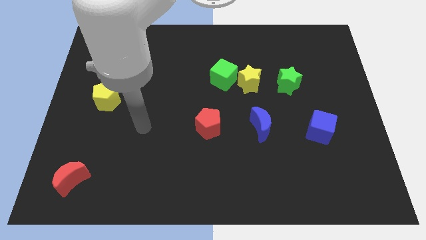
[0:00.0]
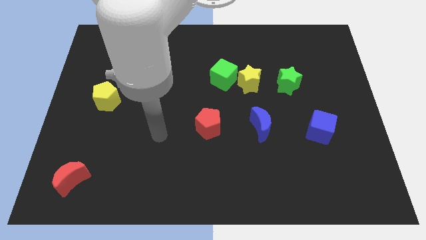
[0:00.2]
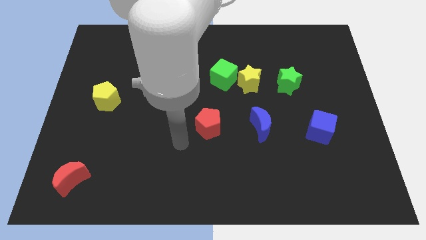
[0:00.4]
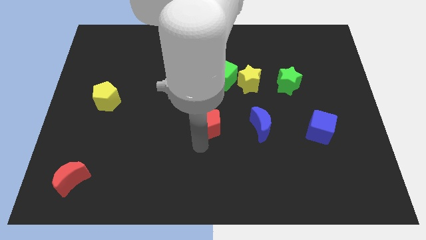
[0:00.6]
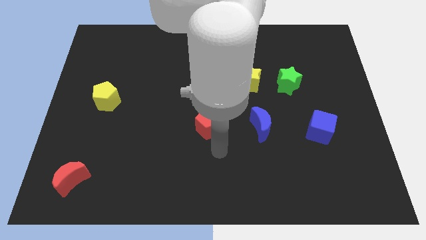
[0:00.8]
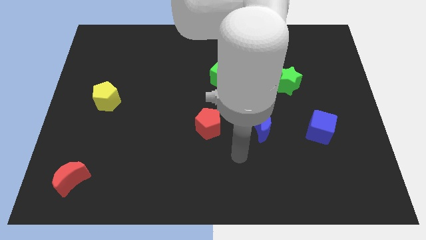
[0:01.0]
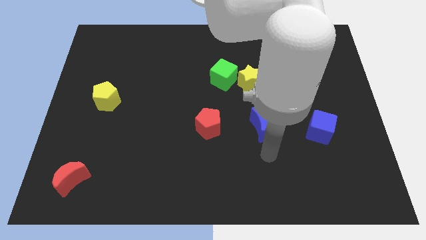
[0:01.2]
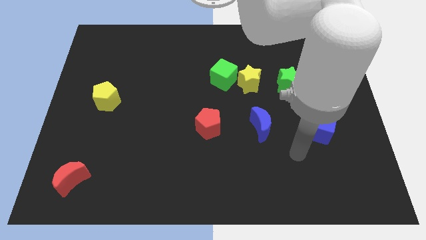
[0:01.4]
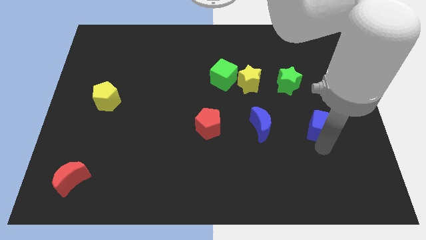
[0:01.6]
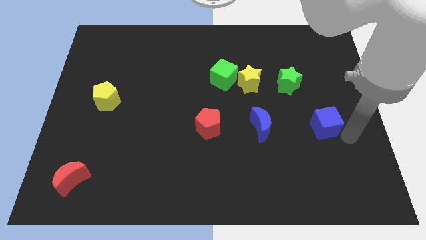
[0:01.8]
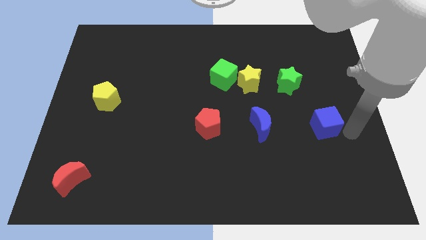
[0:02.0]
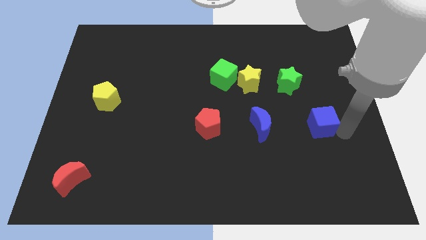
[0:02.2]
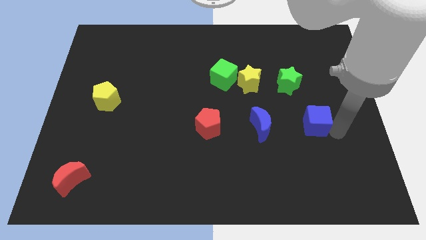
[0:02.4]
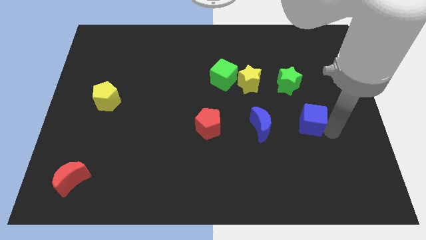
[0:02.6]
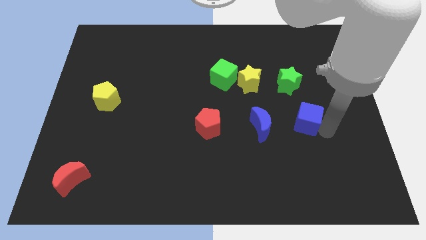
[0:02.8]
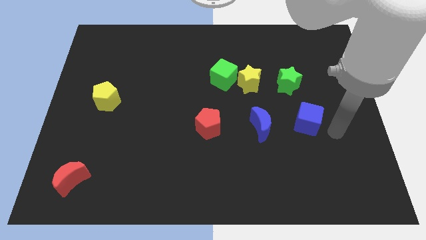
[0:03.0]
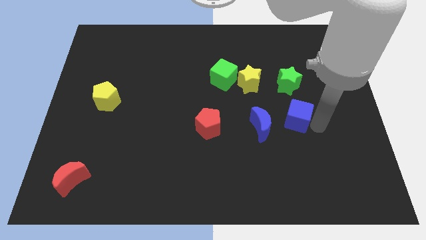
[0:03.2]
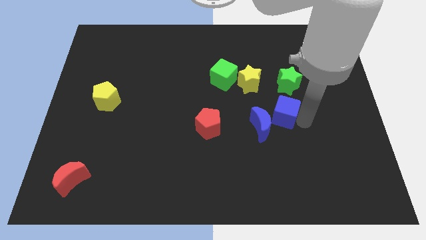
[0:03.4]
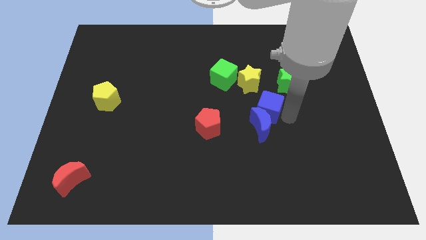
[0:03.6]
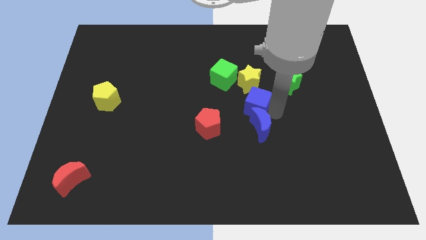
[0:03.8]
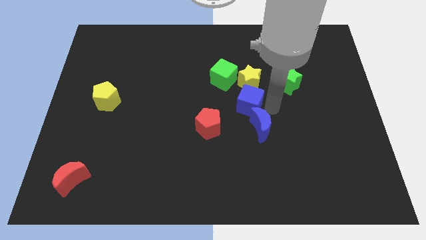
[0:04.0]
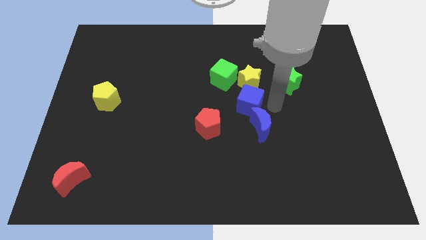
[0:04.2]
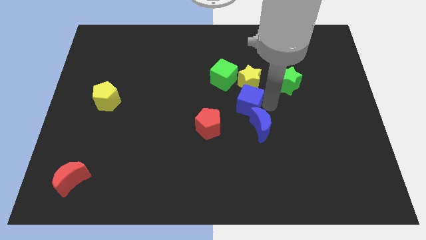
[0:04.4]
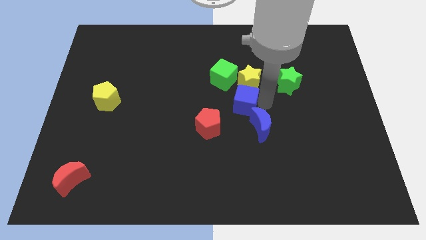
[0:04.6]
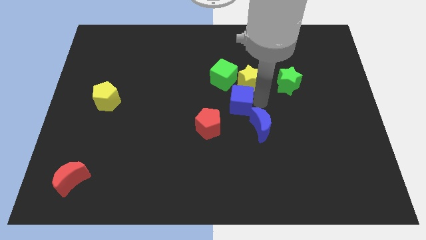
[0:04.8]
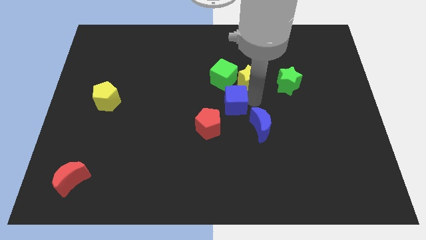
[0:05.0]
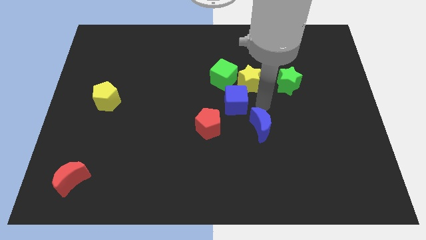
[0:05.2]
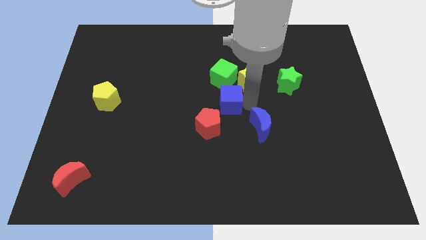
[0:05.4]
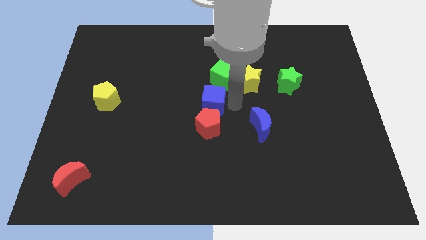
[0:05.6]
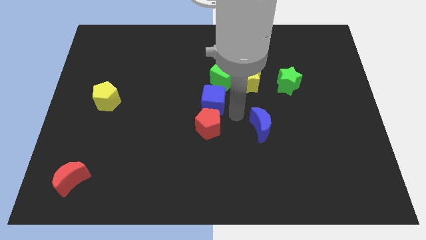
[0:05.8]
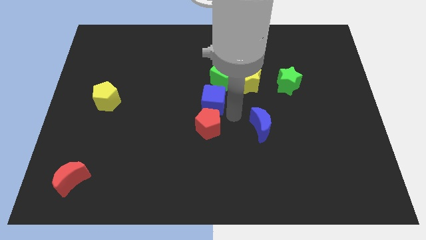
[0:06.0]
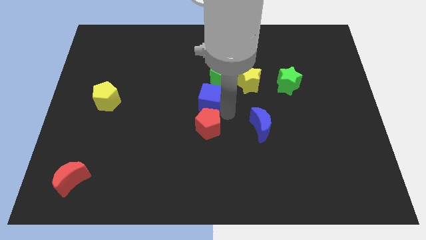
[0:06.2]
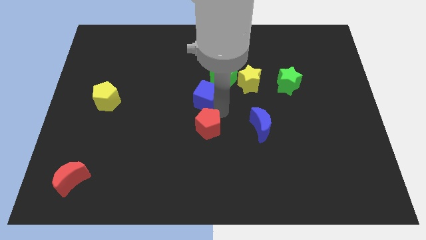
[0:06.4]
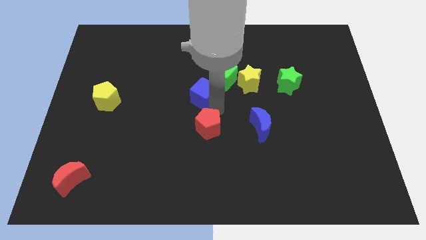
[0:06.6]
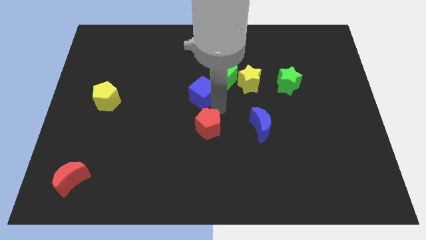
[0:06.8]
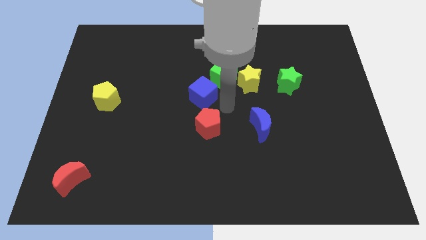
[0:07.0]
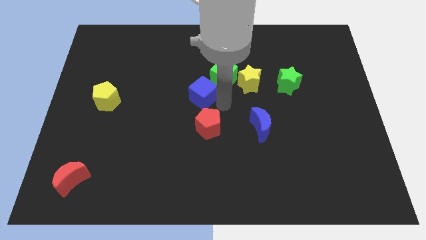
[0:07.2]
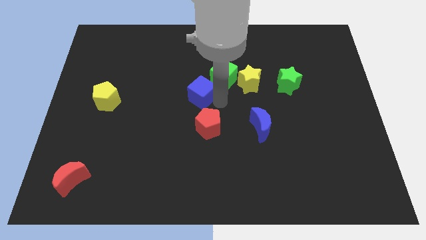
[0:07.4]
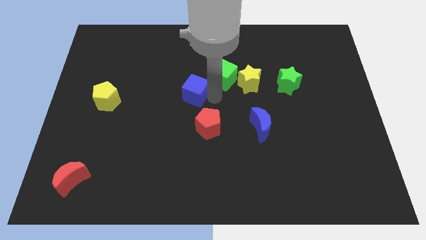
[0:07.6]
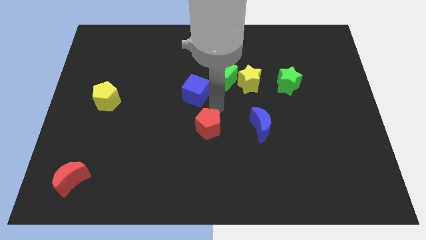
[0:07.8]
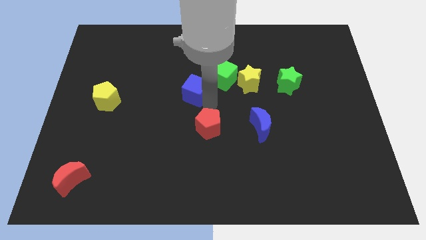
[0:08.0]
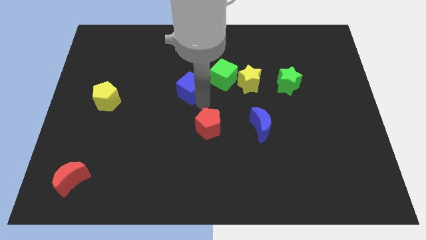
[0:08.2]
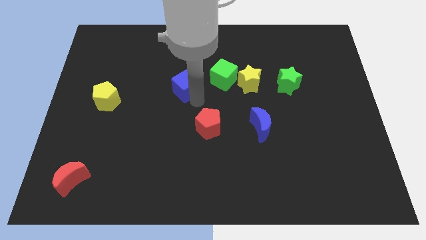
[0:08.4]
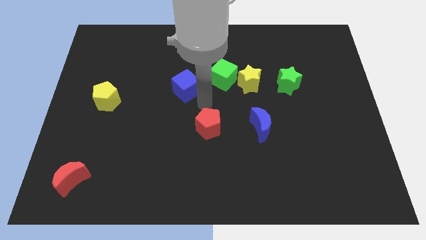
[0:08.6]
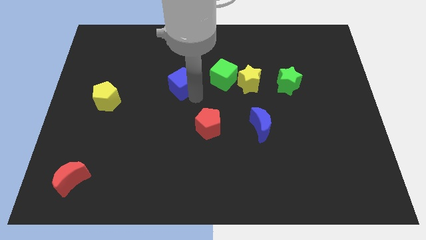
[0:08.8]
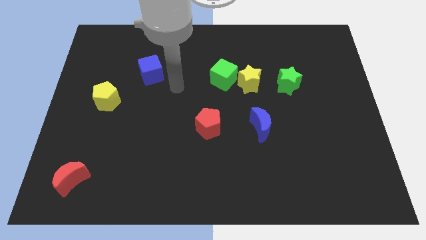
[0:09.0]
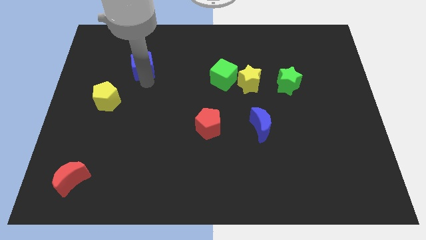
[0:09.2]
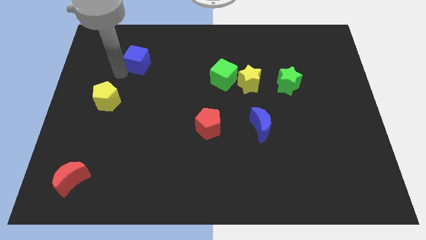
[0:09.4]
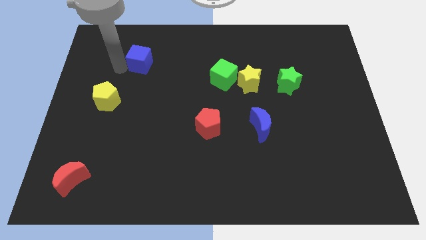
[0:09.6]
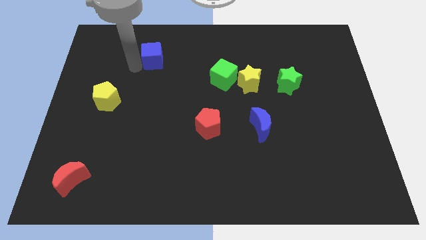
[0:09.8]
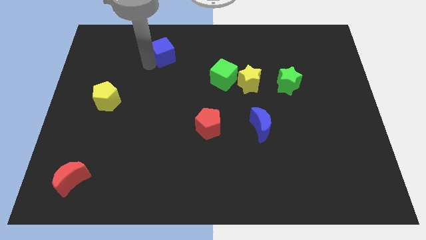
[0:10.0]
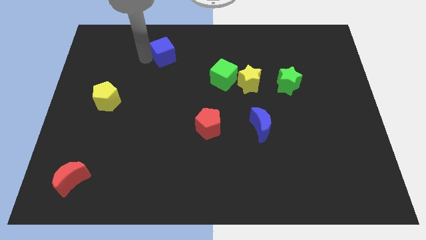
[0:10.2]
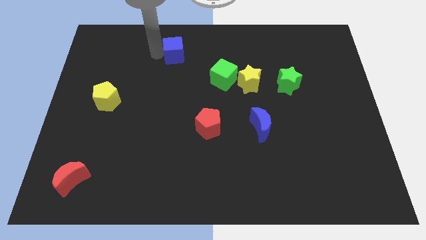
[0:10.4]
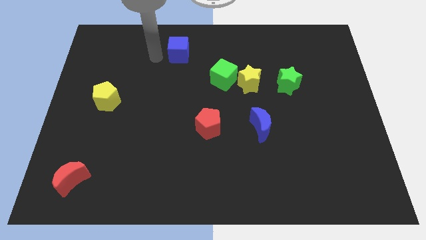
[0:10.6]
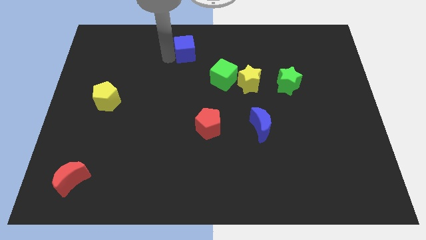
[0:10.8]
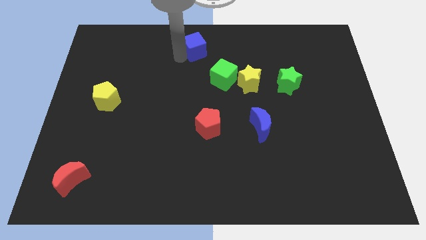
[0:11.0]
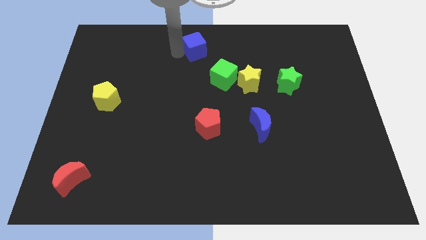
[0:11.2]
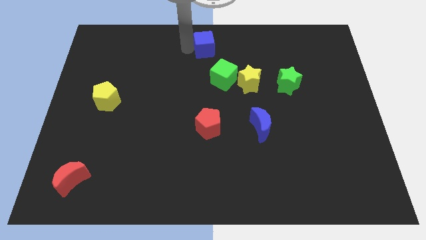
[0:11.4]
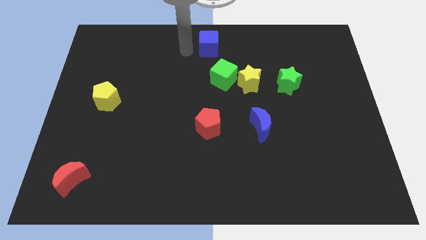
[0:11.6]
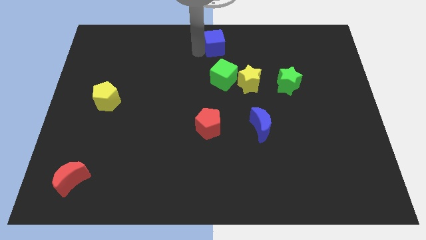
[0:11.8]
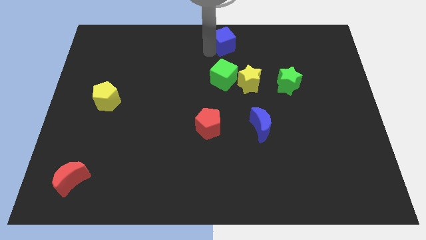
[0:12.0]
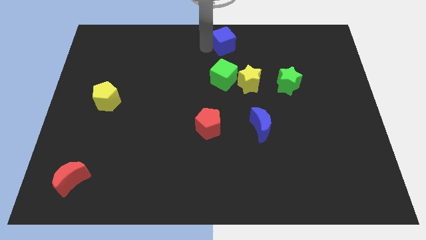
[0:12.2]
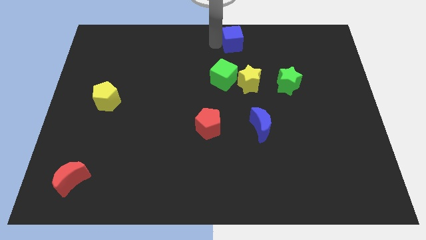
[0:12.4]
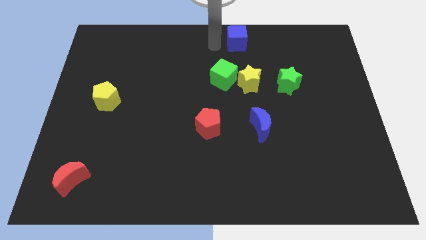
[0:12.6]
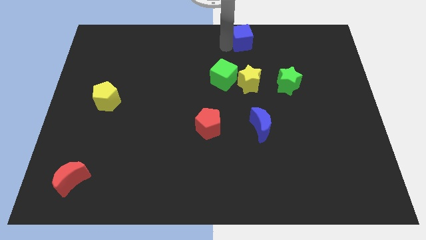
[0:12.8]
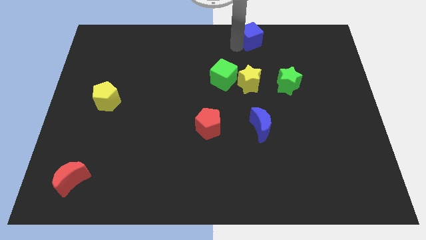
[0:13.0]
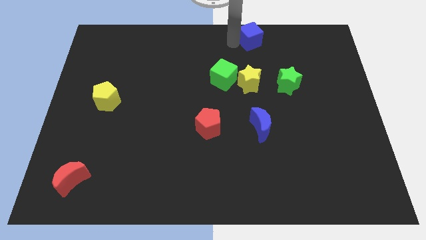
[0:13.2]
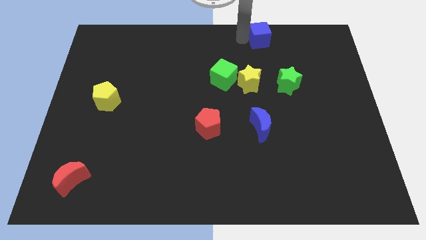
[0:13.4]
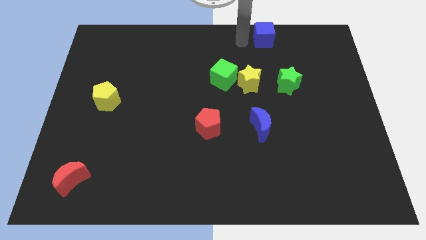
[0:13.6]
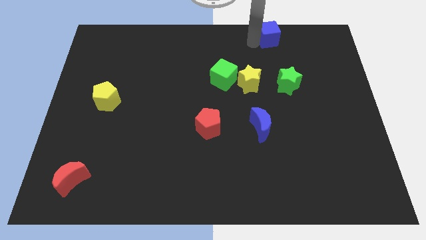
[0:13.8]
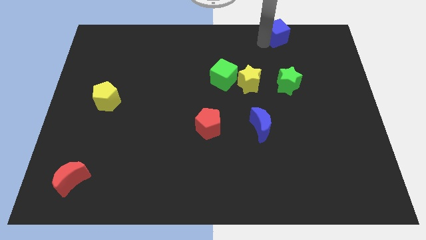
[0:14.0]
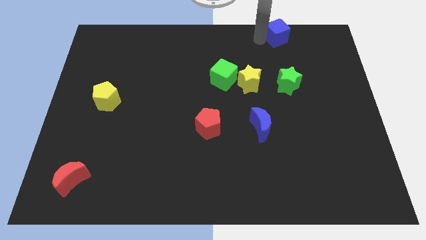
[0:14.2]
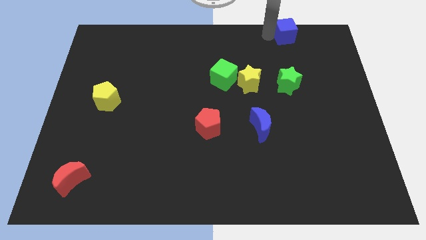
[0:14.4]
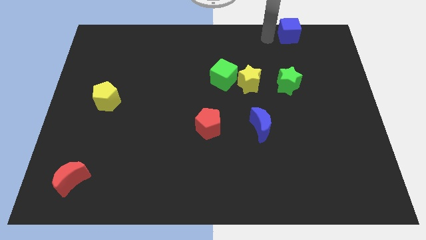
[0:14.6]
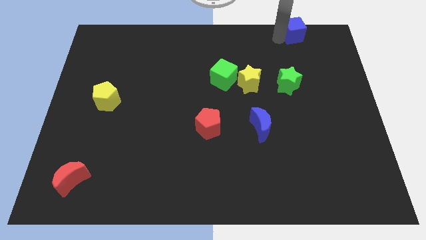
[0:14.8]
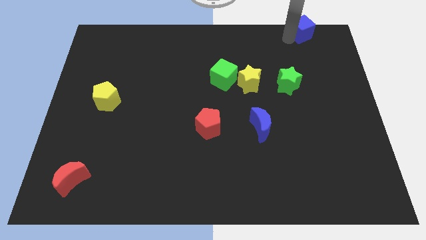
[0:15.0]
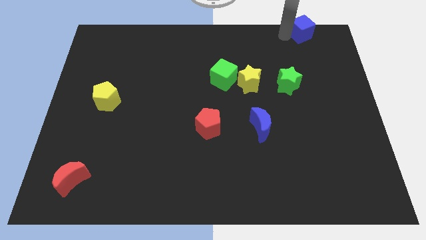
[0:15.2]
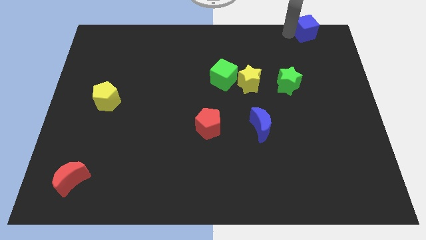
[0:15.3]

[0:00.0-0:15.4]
put the blue cube to the top right corner
